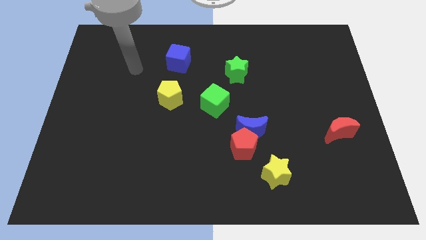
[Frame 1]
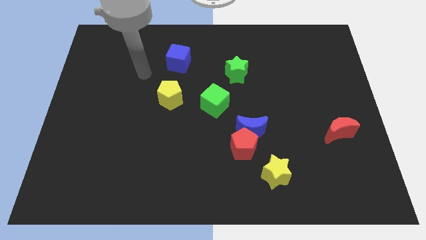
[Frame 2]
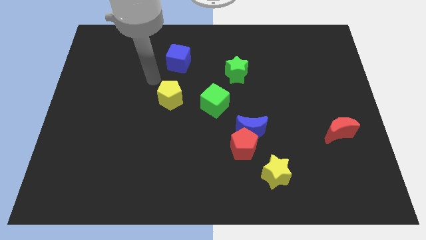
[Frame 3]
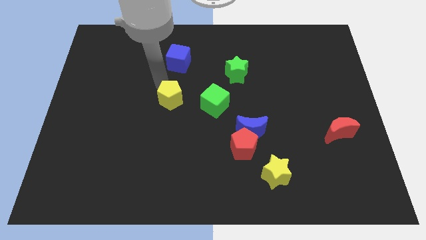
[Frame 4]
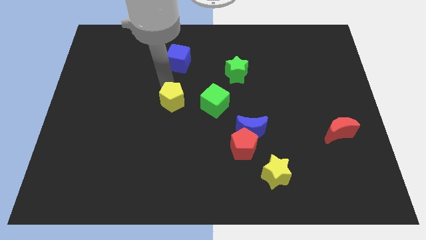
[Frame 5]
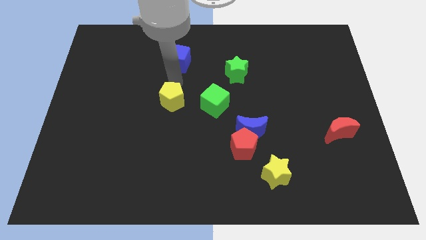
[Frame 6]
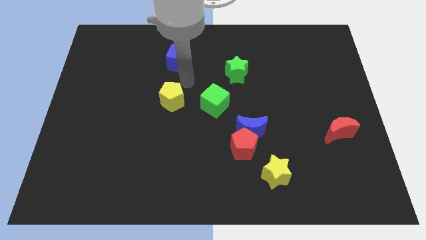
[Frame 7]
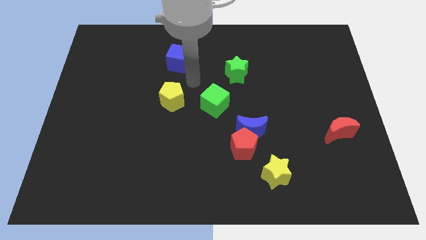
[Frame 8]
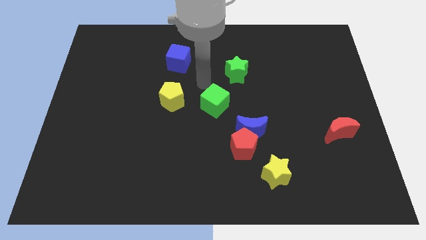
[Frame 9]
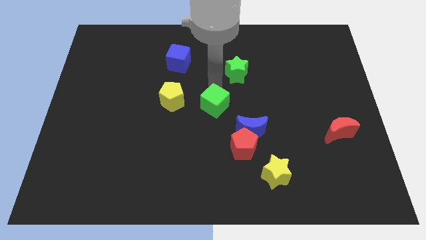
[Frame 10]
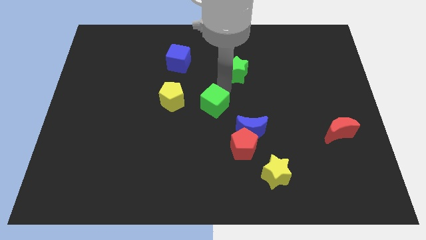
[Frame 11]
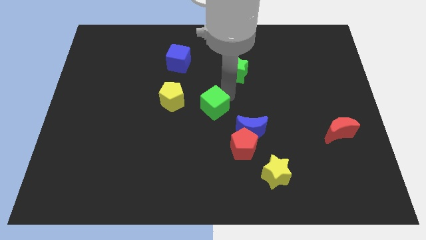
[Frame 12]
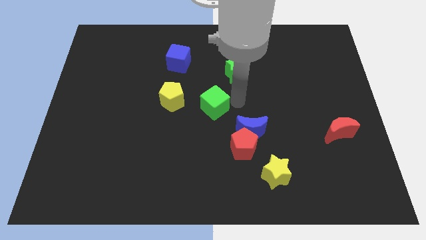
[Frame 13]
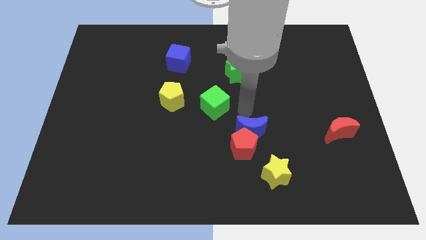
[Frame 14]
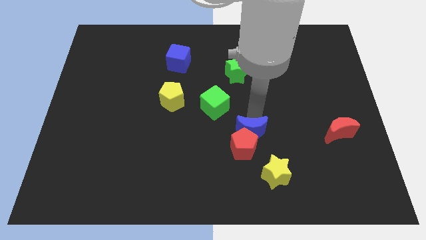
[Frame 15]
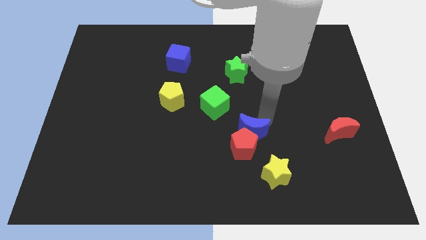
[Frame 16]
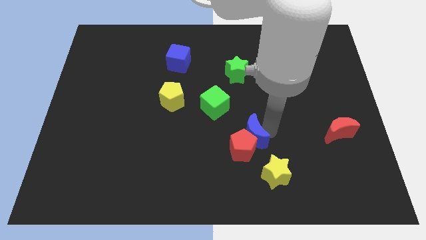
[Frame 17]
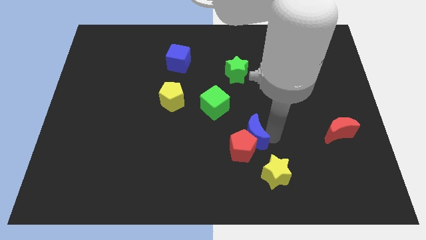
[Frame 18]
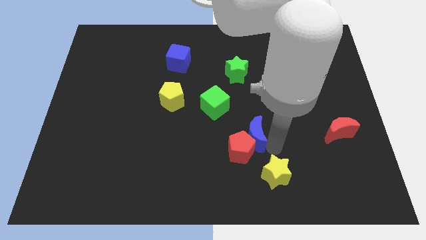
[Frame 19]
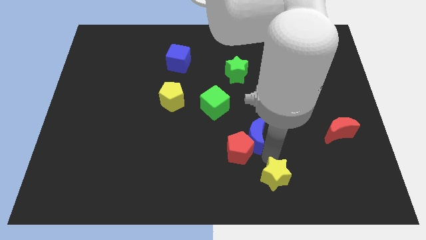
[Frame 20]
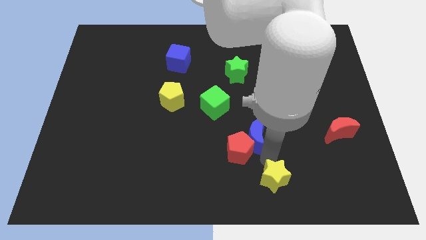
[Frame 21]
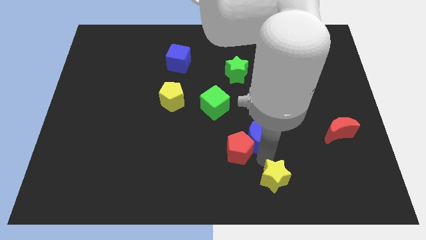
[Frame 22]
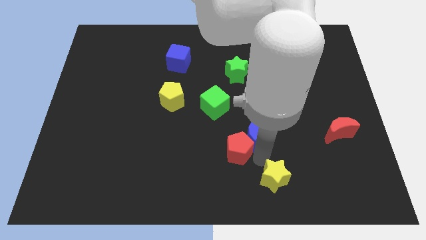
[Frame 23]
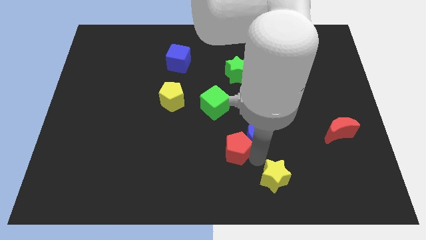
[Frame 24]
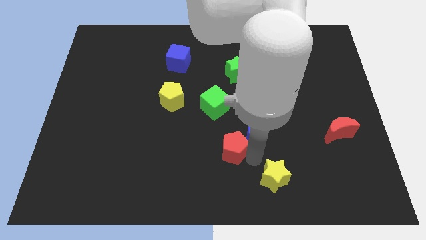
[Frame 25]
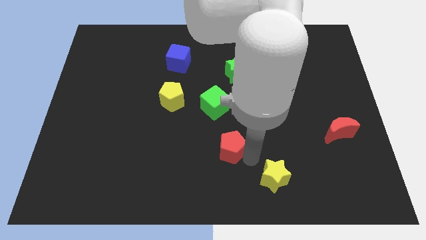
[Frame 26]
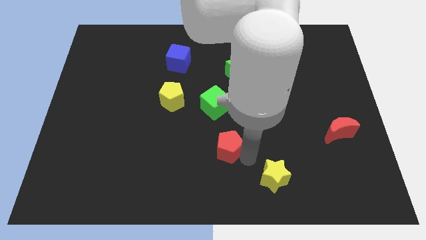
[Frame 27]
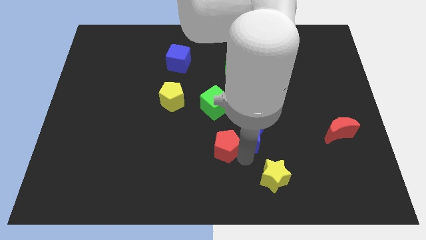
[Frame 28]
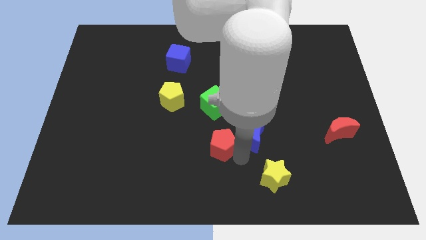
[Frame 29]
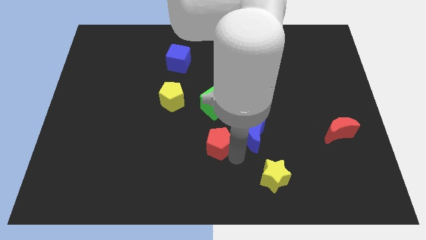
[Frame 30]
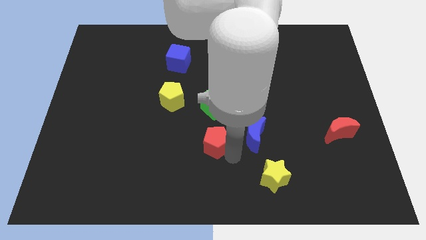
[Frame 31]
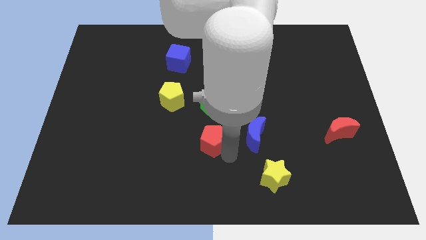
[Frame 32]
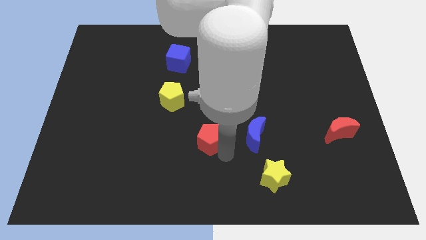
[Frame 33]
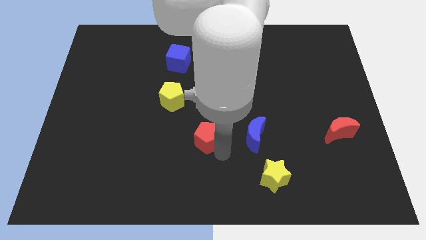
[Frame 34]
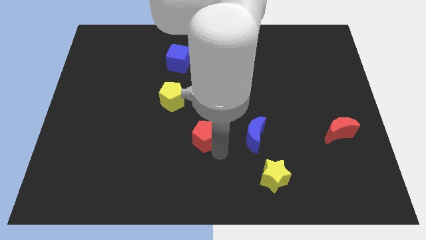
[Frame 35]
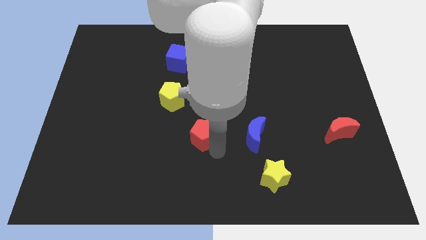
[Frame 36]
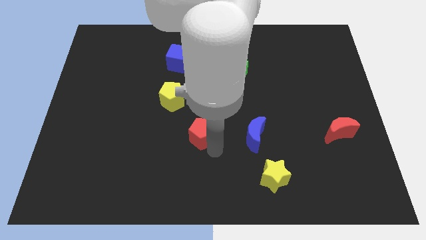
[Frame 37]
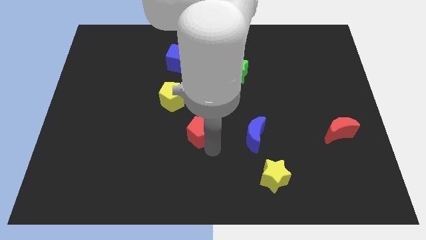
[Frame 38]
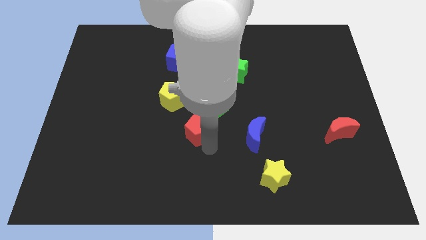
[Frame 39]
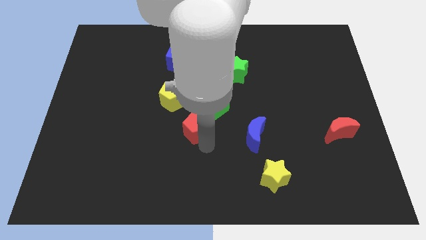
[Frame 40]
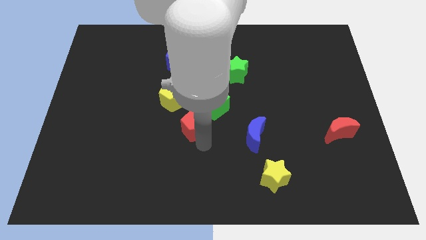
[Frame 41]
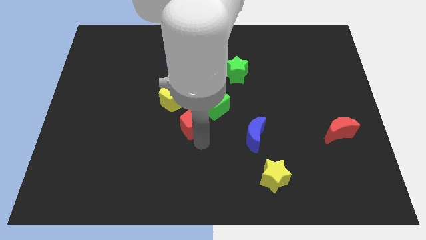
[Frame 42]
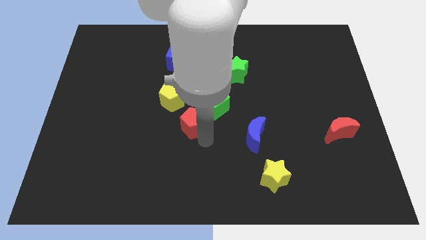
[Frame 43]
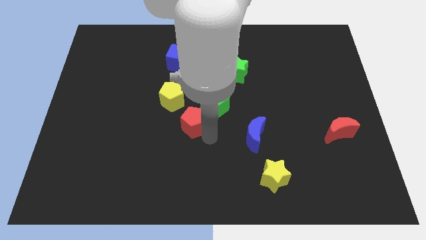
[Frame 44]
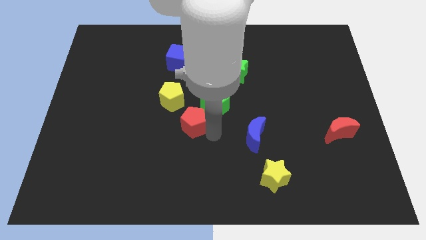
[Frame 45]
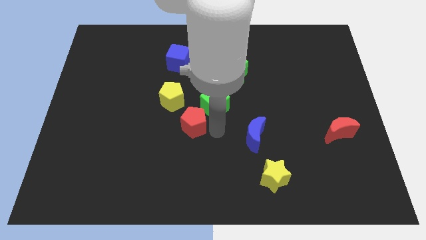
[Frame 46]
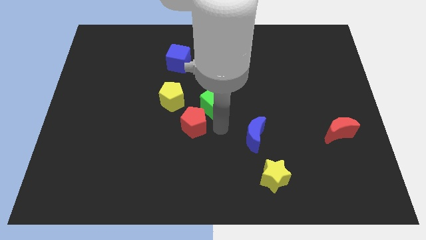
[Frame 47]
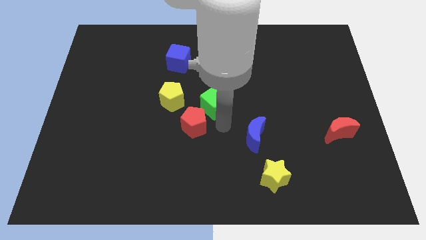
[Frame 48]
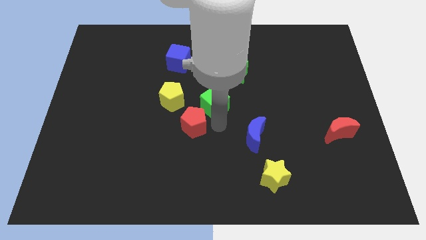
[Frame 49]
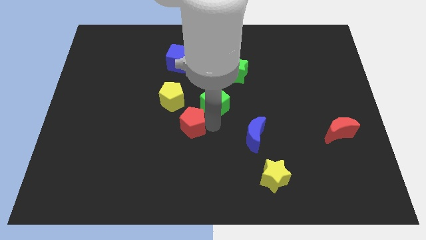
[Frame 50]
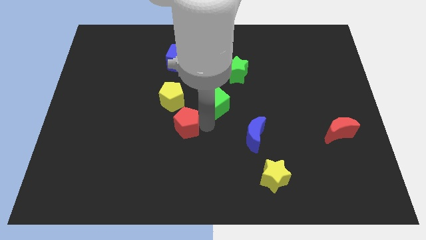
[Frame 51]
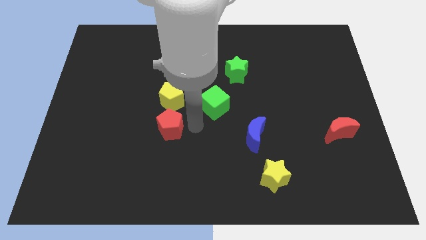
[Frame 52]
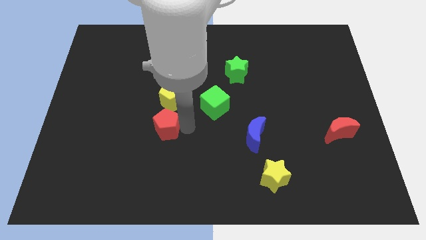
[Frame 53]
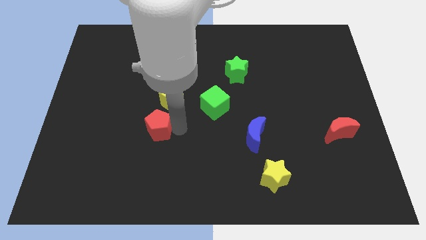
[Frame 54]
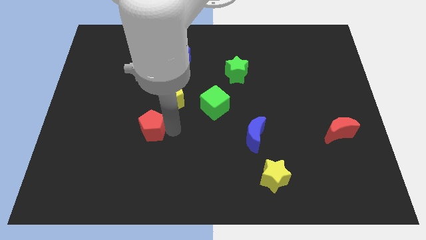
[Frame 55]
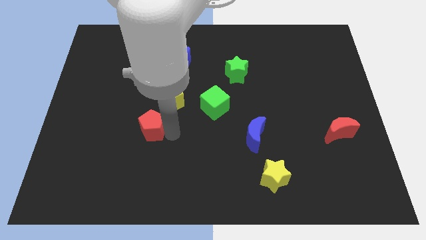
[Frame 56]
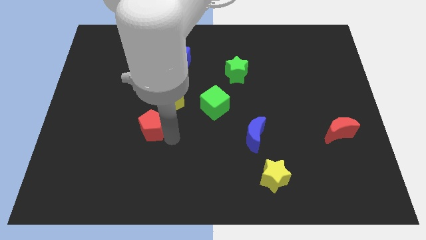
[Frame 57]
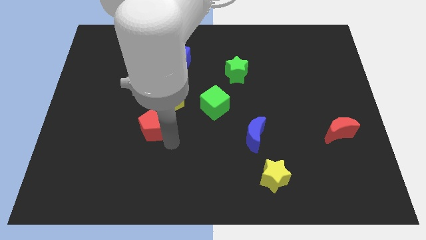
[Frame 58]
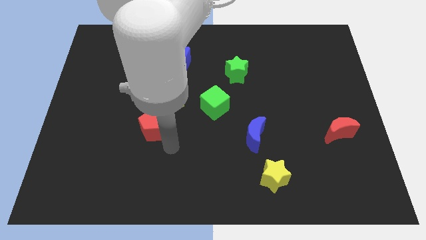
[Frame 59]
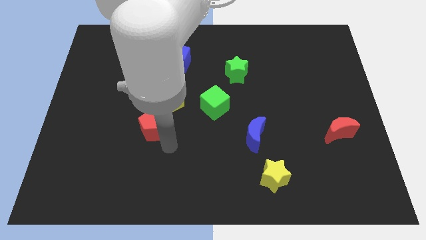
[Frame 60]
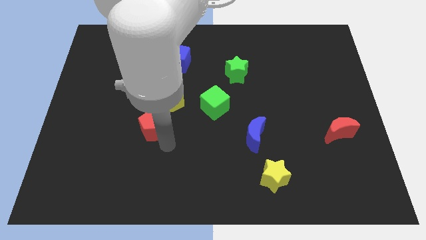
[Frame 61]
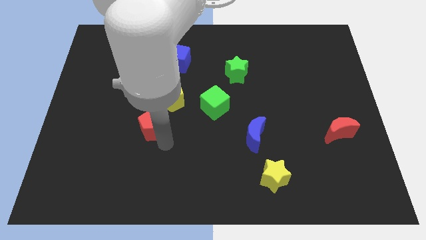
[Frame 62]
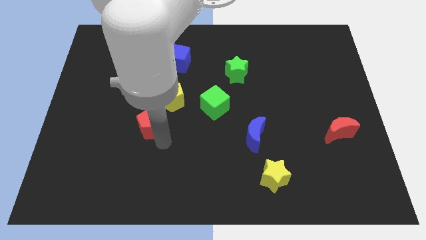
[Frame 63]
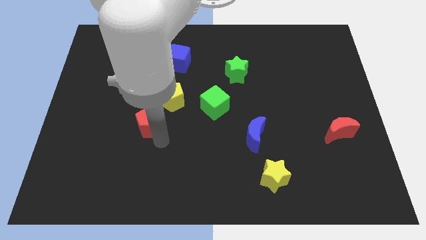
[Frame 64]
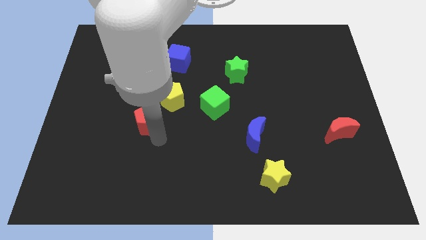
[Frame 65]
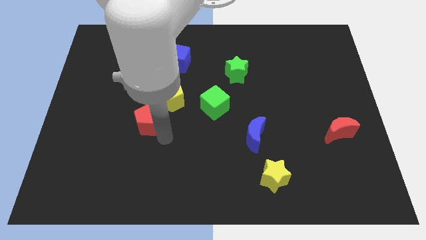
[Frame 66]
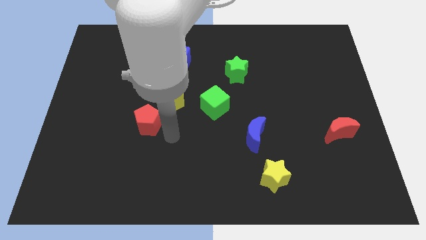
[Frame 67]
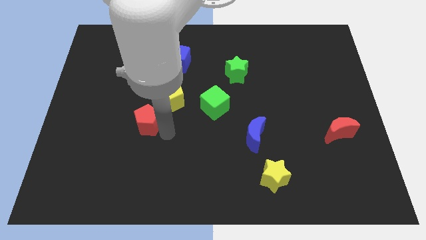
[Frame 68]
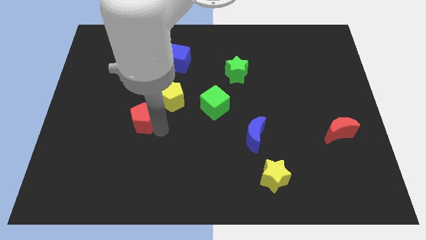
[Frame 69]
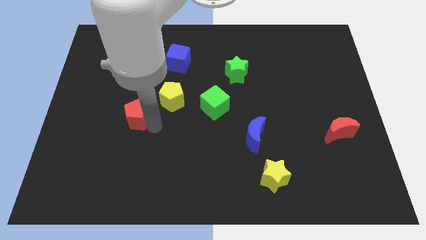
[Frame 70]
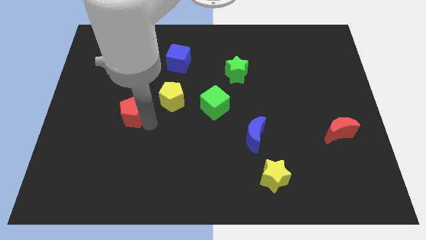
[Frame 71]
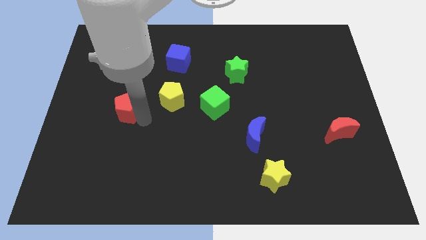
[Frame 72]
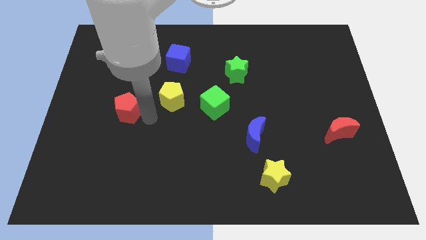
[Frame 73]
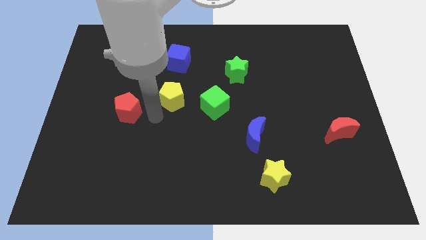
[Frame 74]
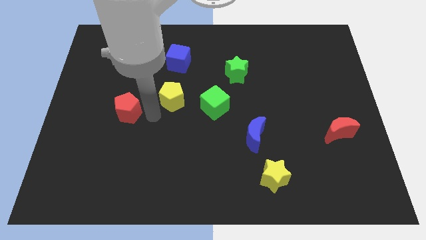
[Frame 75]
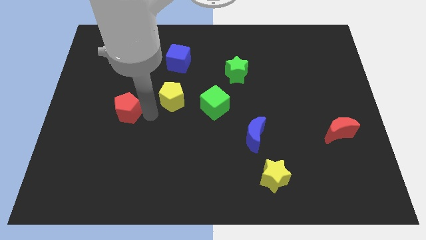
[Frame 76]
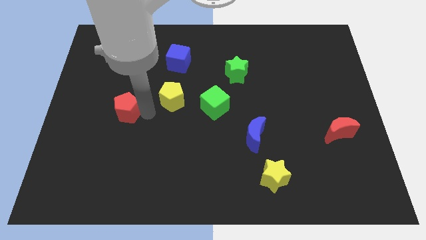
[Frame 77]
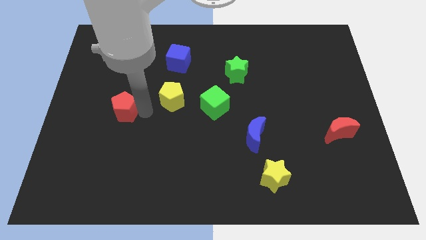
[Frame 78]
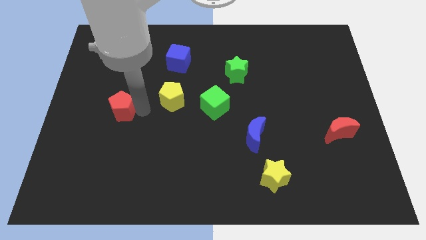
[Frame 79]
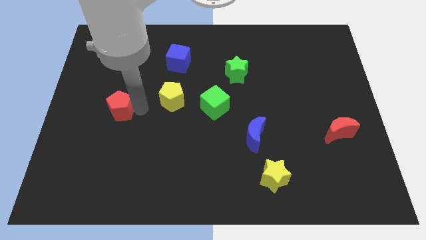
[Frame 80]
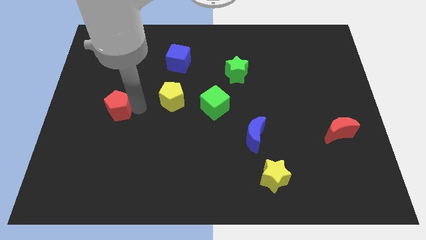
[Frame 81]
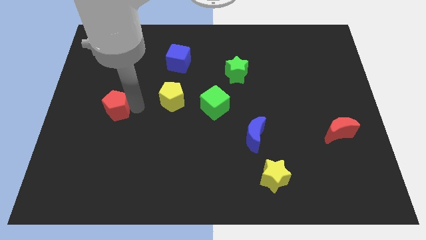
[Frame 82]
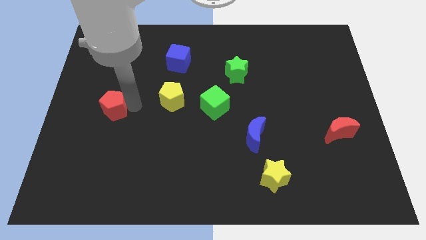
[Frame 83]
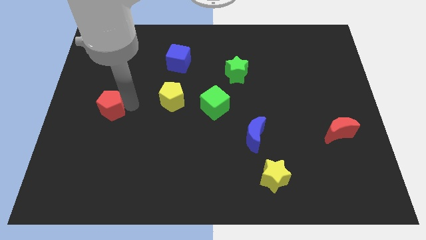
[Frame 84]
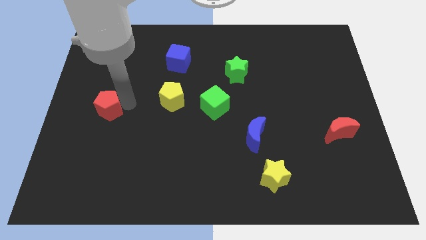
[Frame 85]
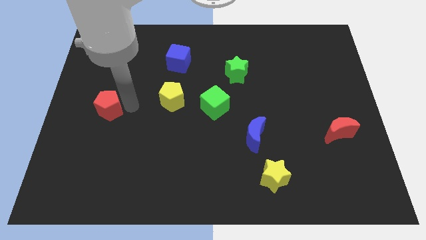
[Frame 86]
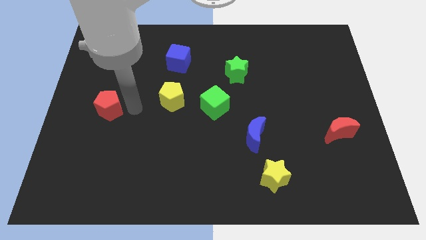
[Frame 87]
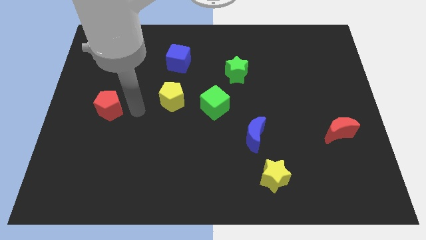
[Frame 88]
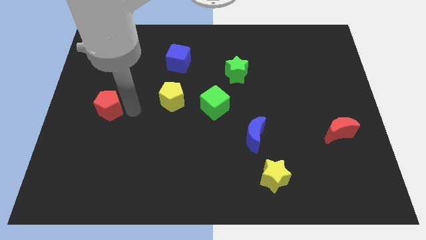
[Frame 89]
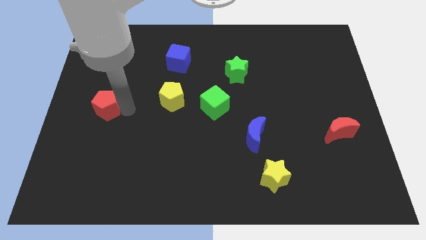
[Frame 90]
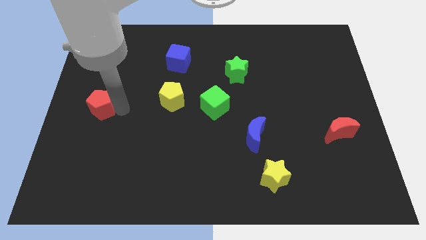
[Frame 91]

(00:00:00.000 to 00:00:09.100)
move the red pentagon to the center left
